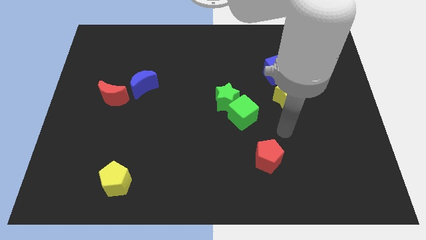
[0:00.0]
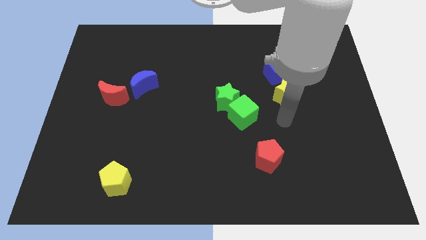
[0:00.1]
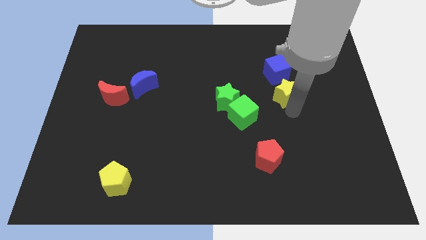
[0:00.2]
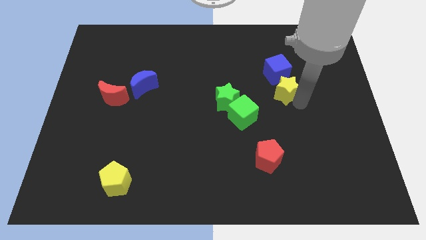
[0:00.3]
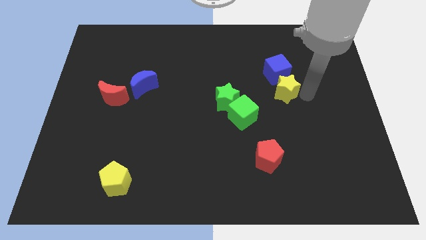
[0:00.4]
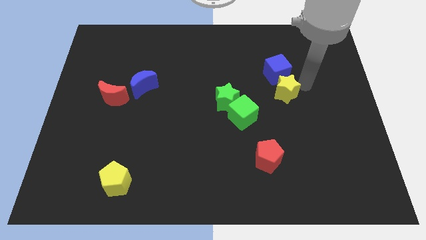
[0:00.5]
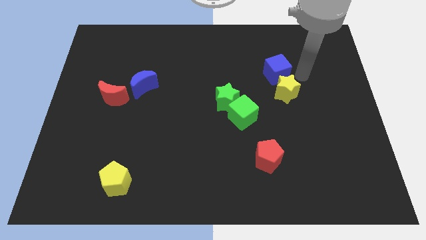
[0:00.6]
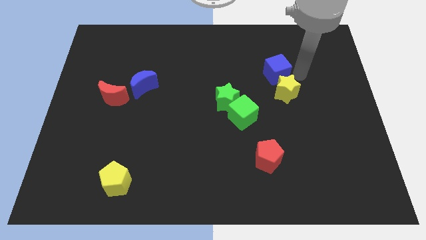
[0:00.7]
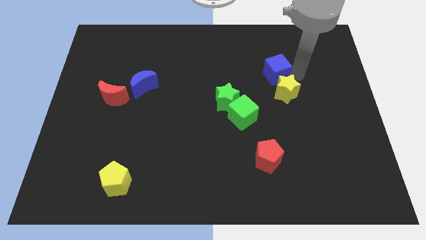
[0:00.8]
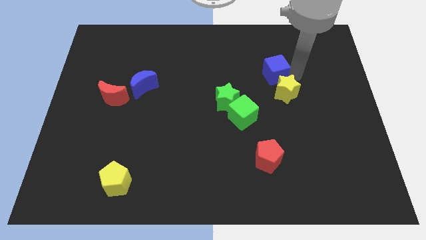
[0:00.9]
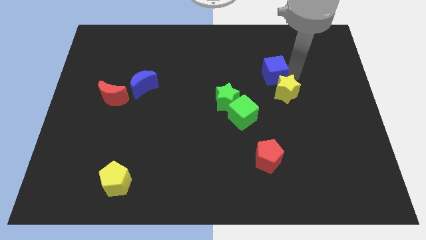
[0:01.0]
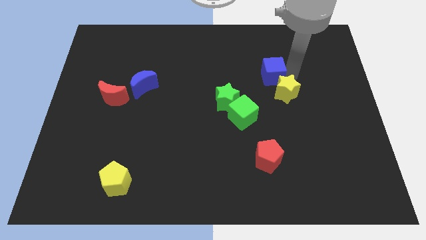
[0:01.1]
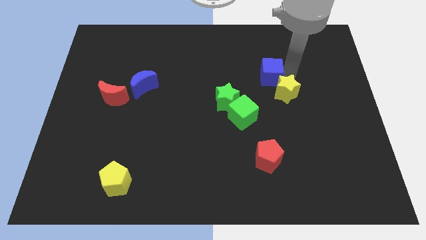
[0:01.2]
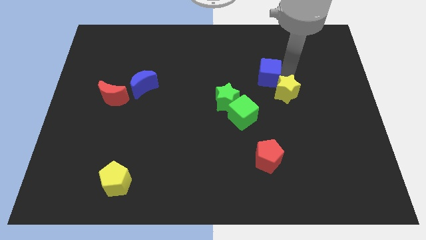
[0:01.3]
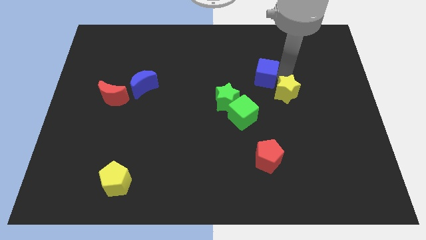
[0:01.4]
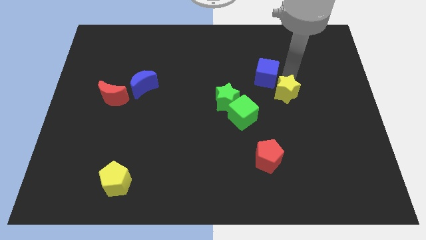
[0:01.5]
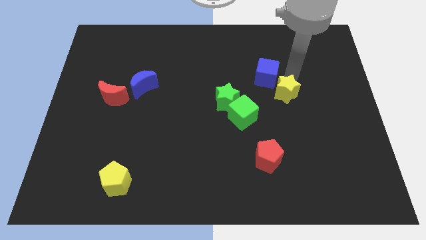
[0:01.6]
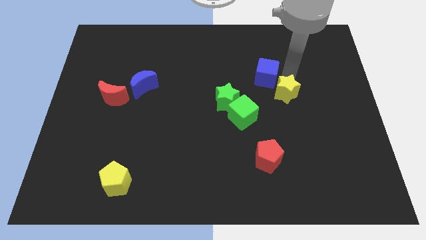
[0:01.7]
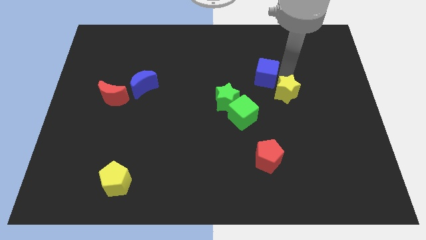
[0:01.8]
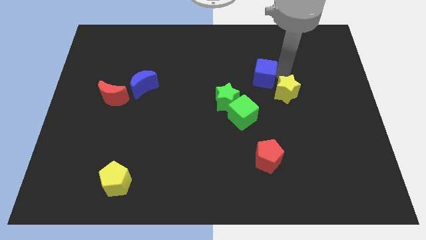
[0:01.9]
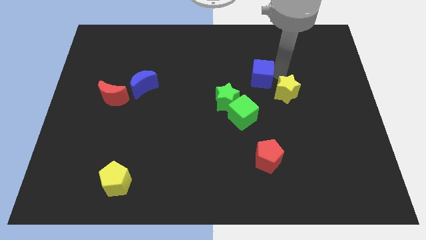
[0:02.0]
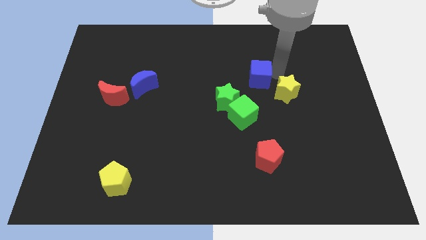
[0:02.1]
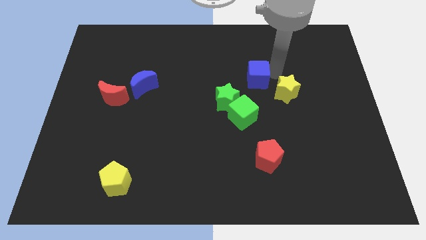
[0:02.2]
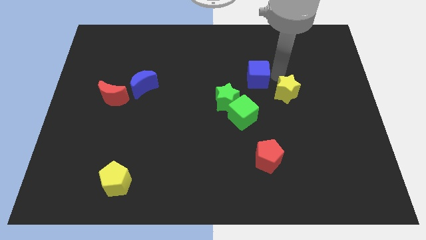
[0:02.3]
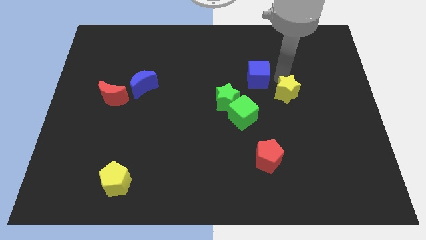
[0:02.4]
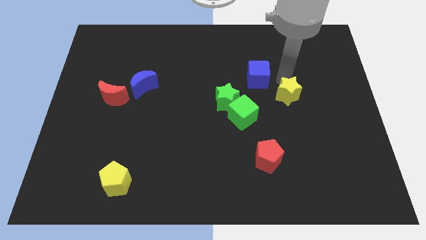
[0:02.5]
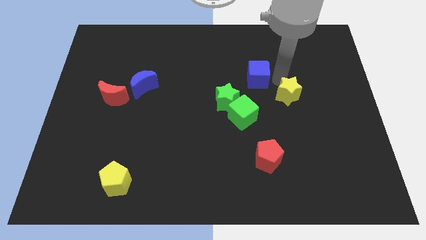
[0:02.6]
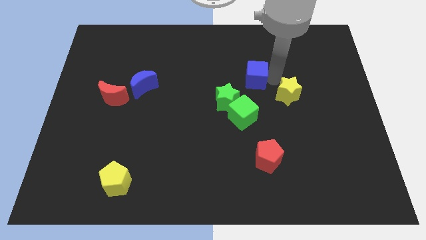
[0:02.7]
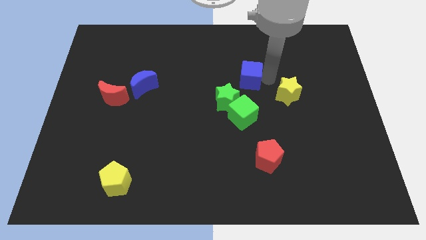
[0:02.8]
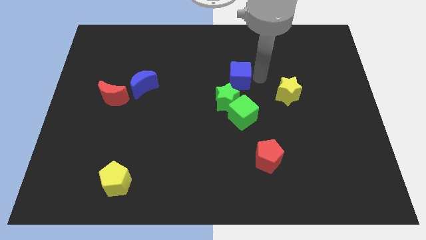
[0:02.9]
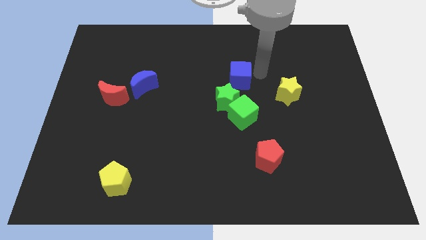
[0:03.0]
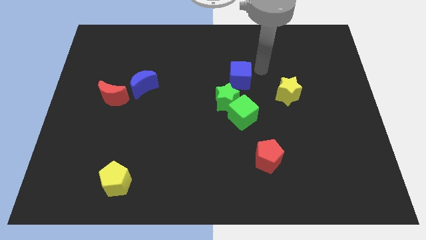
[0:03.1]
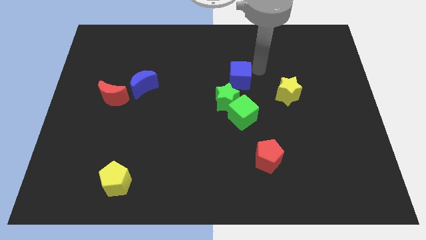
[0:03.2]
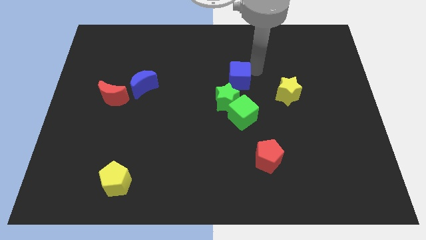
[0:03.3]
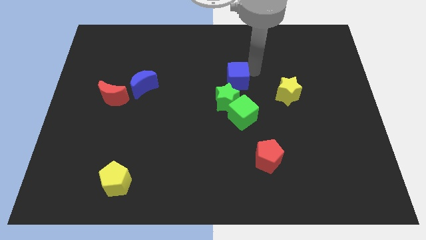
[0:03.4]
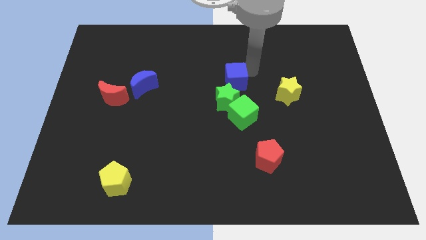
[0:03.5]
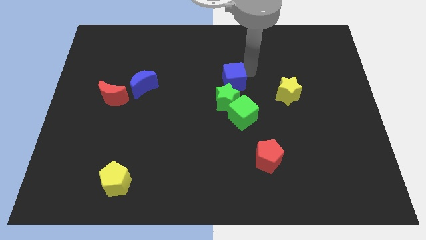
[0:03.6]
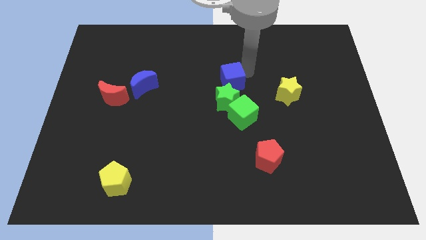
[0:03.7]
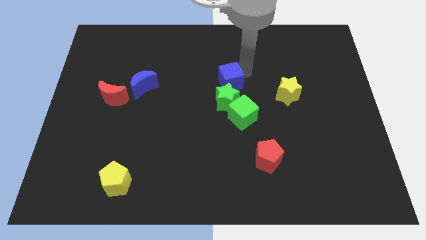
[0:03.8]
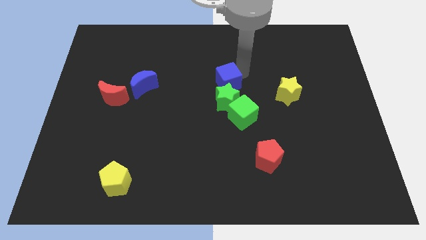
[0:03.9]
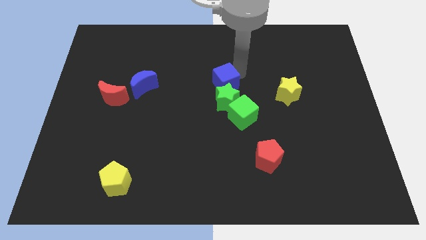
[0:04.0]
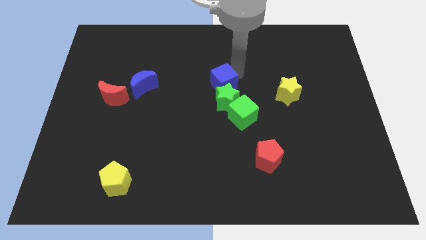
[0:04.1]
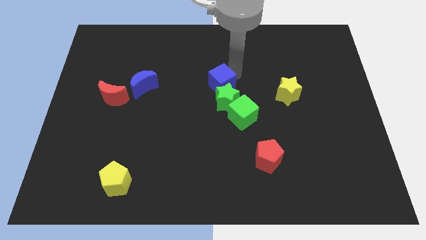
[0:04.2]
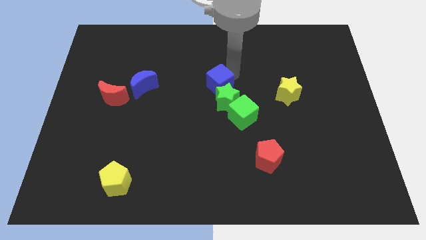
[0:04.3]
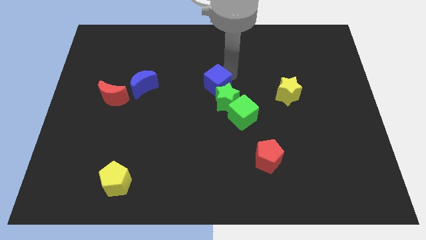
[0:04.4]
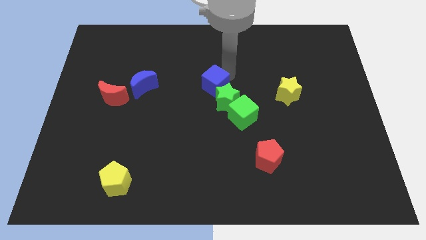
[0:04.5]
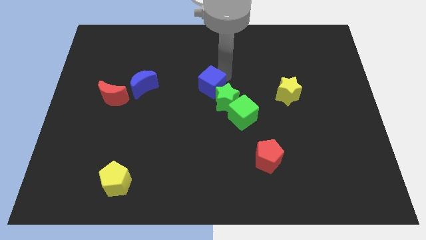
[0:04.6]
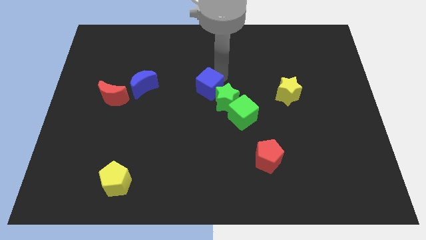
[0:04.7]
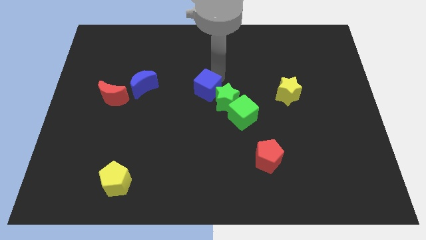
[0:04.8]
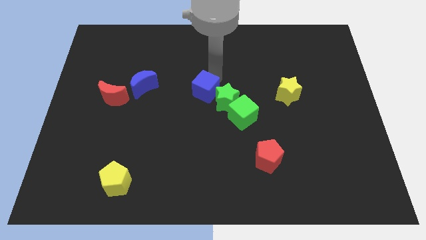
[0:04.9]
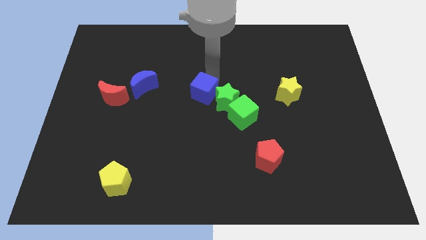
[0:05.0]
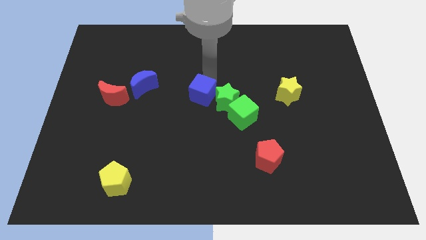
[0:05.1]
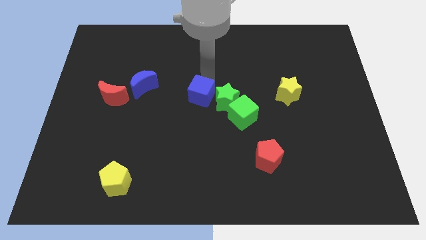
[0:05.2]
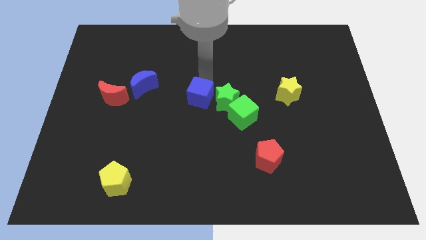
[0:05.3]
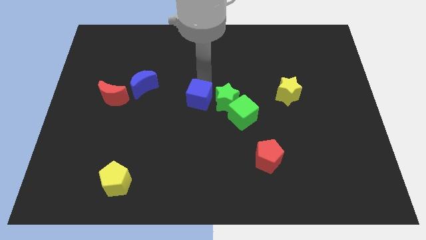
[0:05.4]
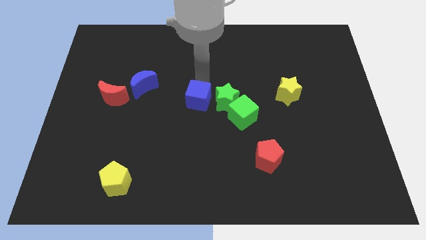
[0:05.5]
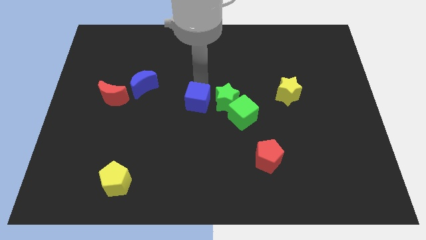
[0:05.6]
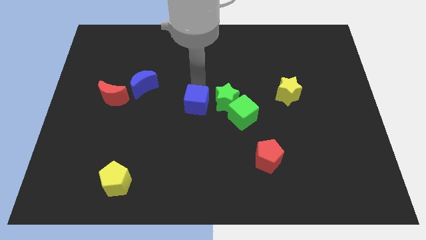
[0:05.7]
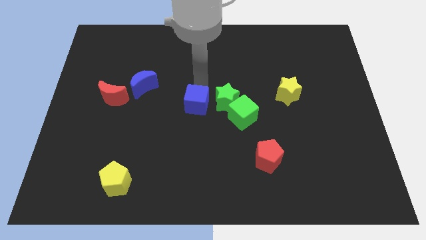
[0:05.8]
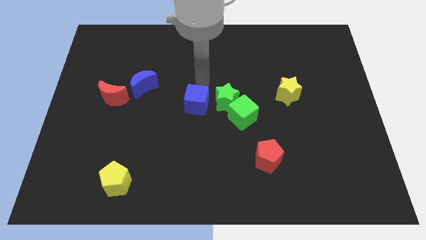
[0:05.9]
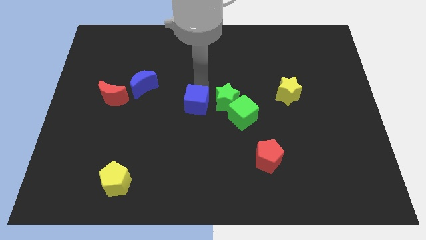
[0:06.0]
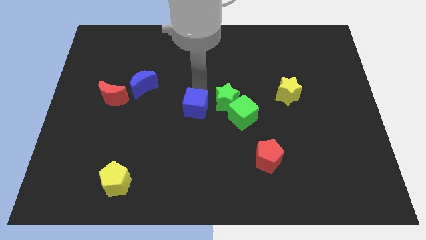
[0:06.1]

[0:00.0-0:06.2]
slide the blue cube downwards and then left

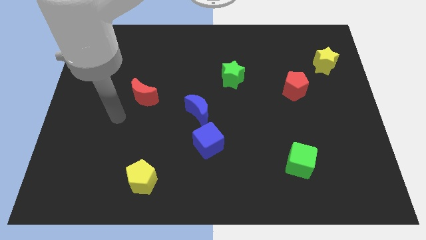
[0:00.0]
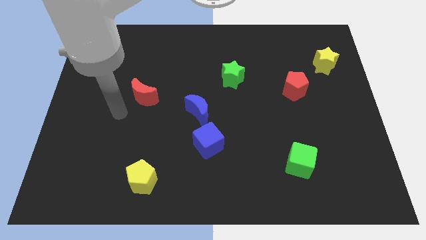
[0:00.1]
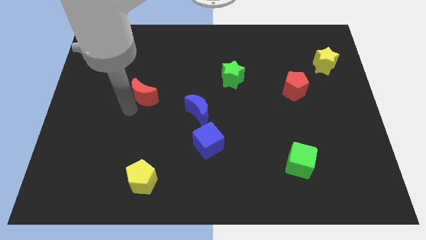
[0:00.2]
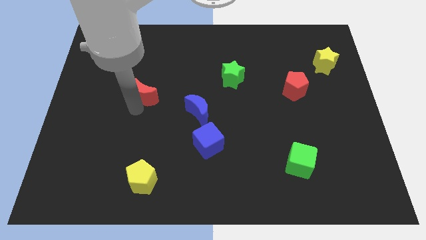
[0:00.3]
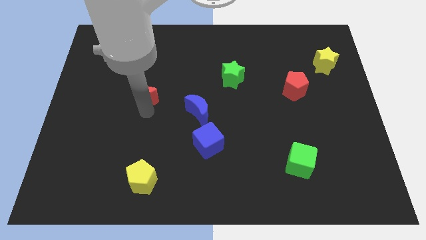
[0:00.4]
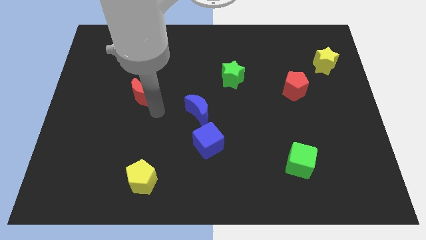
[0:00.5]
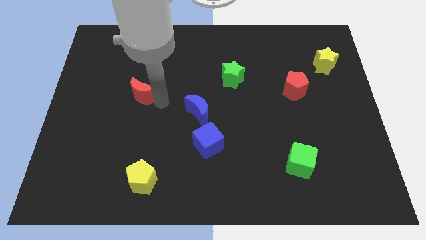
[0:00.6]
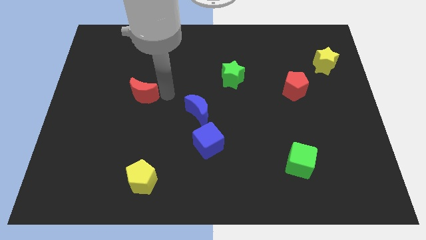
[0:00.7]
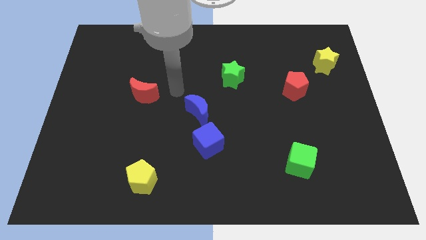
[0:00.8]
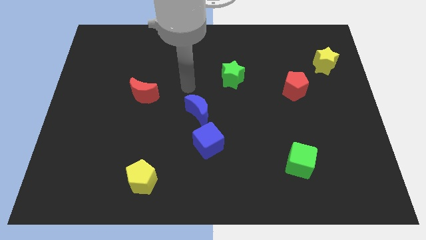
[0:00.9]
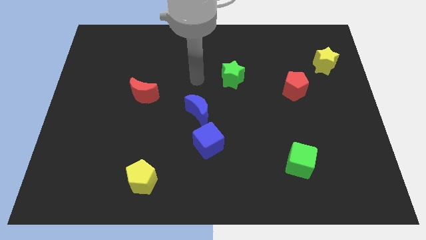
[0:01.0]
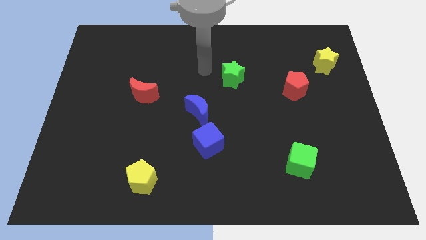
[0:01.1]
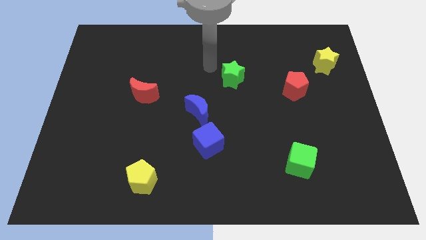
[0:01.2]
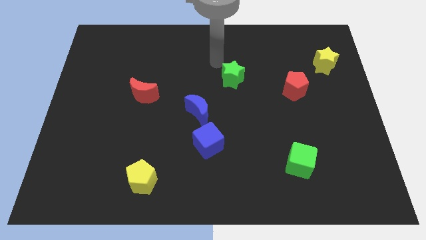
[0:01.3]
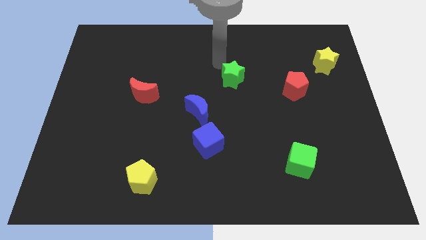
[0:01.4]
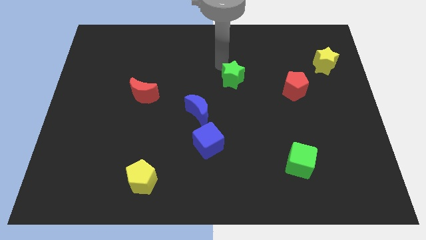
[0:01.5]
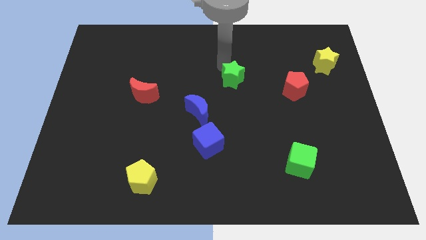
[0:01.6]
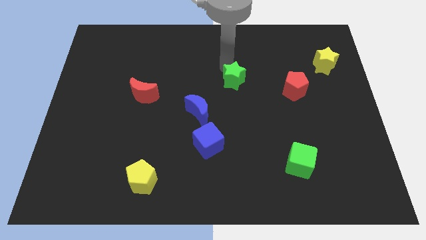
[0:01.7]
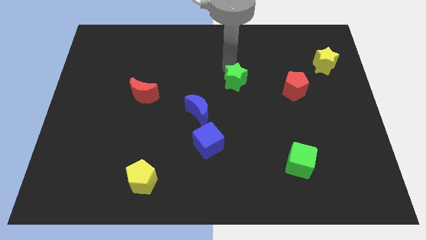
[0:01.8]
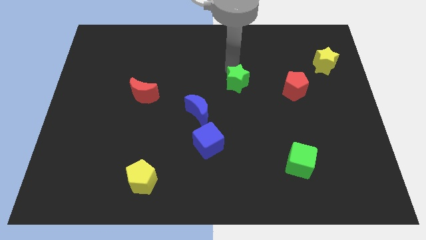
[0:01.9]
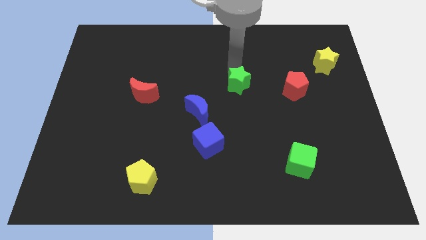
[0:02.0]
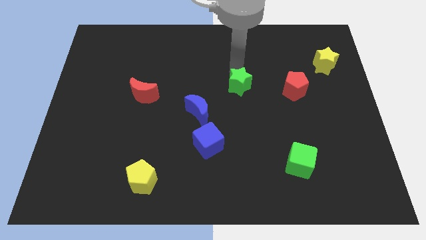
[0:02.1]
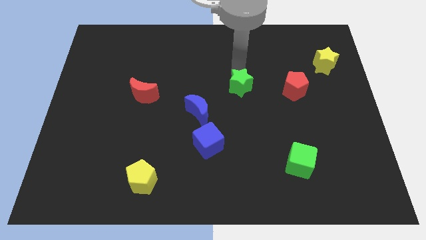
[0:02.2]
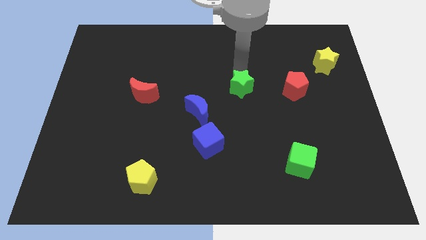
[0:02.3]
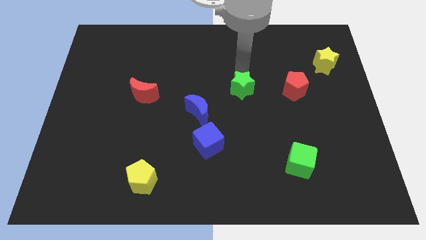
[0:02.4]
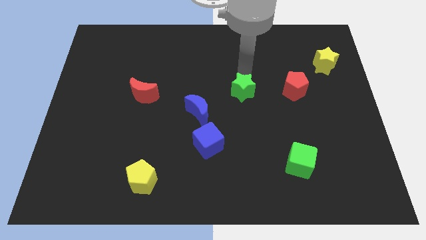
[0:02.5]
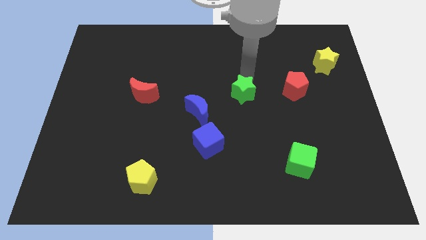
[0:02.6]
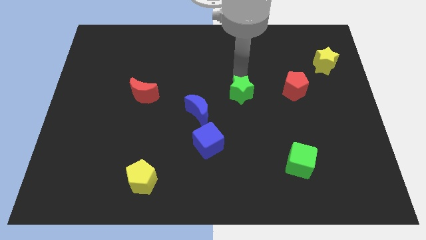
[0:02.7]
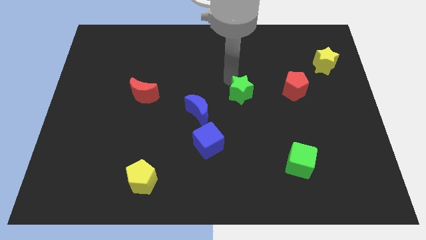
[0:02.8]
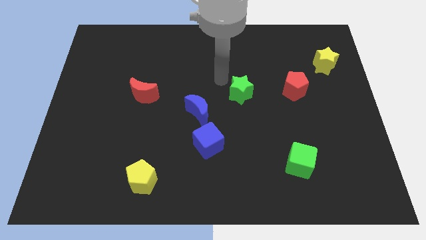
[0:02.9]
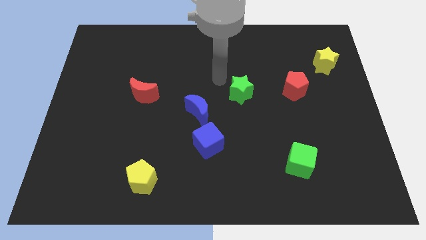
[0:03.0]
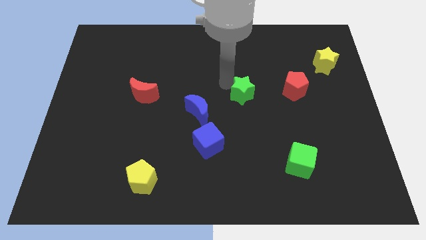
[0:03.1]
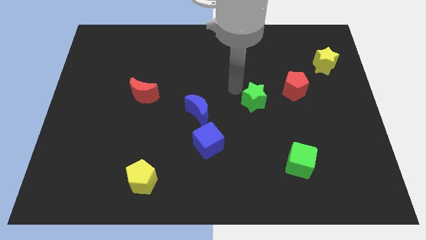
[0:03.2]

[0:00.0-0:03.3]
slightly push the green star down and to the right
